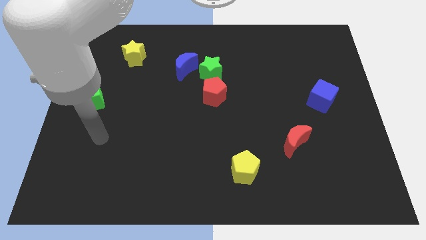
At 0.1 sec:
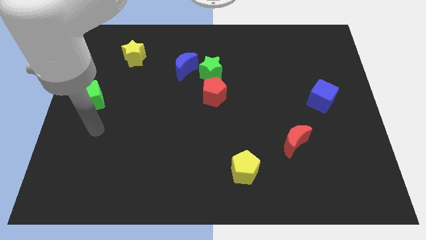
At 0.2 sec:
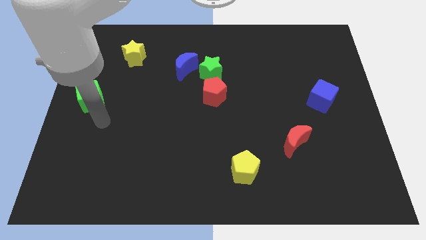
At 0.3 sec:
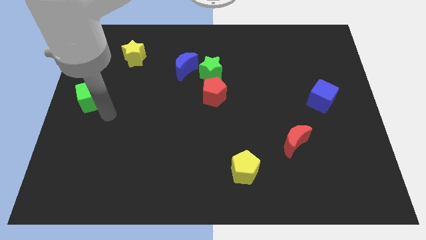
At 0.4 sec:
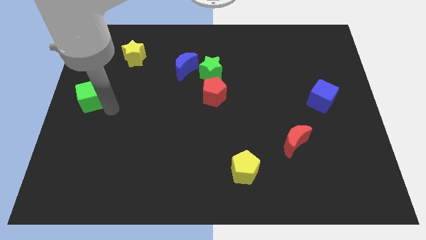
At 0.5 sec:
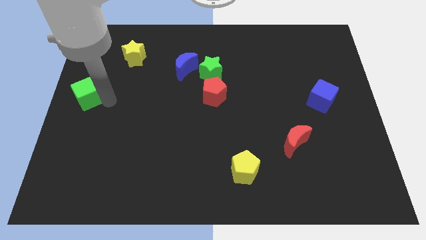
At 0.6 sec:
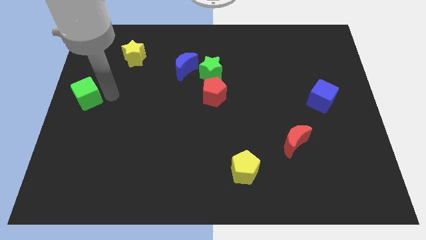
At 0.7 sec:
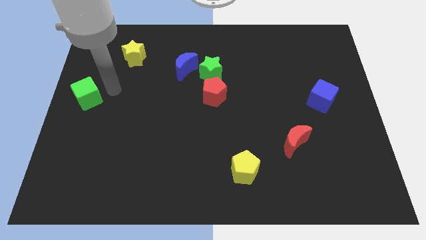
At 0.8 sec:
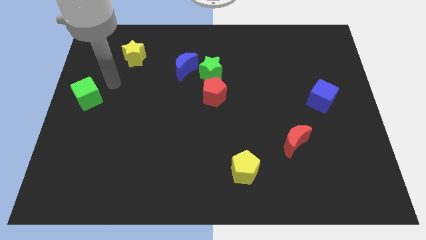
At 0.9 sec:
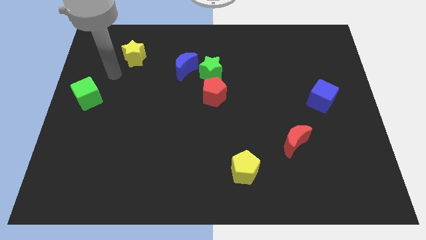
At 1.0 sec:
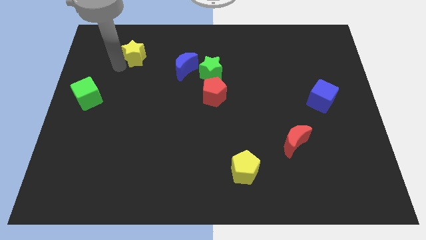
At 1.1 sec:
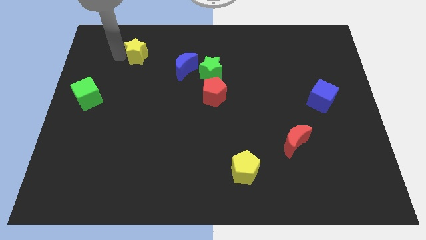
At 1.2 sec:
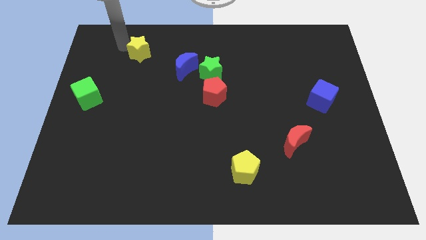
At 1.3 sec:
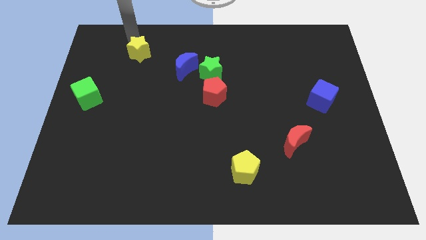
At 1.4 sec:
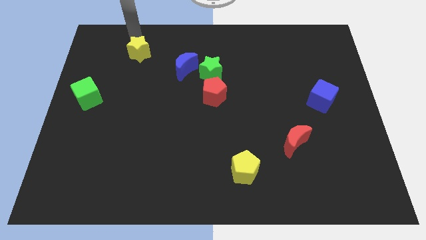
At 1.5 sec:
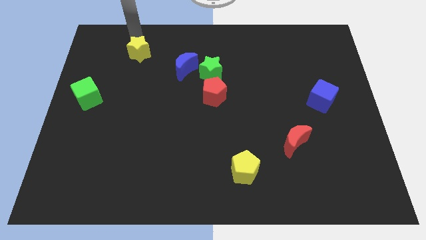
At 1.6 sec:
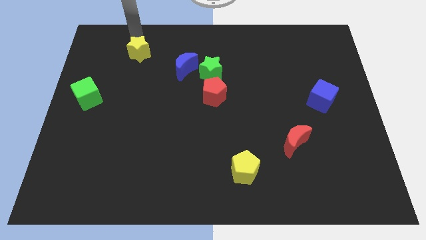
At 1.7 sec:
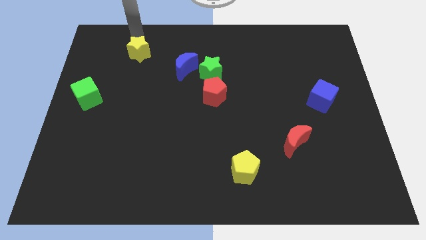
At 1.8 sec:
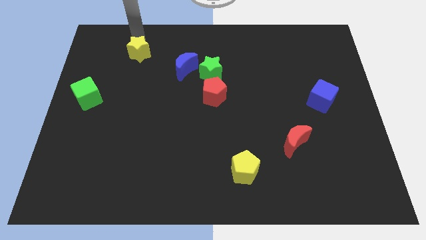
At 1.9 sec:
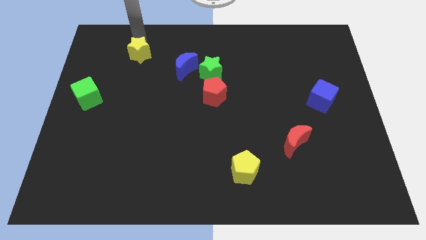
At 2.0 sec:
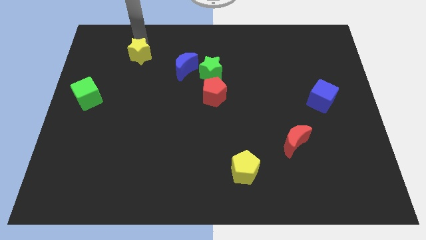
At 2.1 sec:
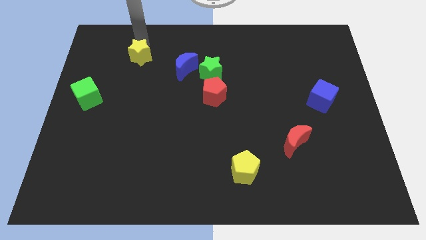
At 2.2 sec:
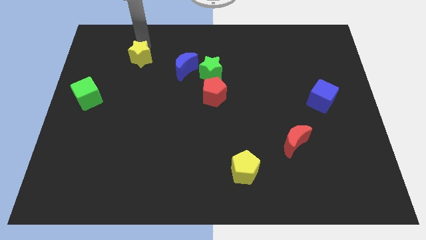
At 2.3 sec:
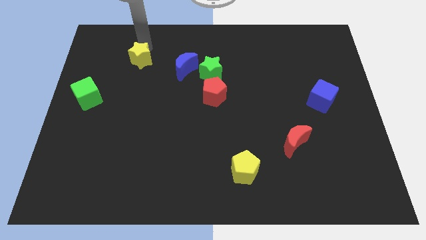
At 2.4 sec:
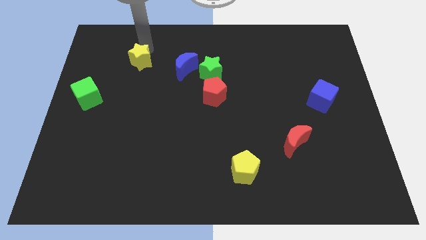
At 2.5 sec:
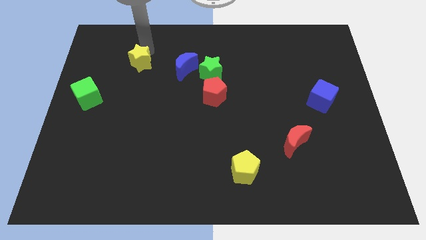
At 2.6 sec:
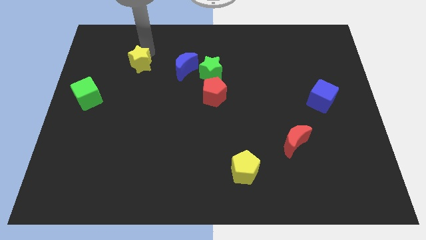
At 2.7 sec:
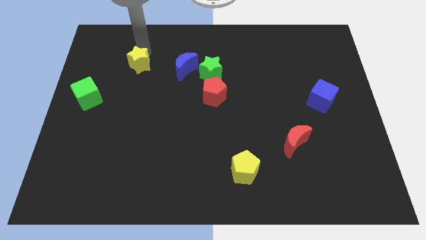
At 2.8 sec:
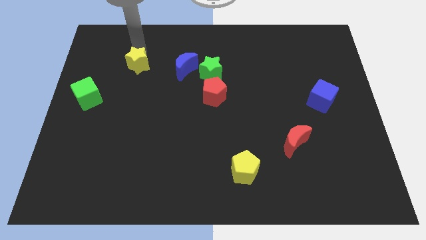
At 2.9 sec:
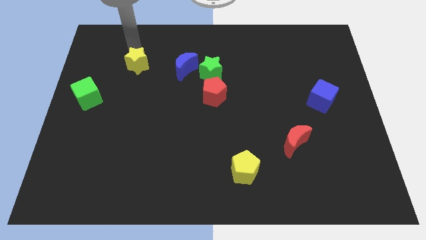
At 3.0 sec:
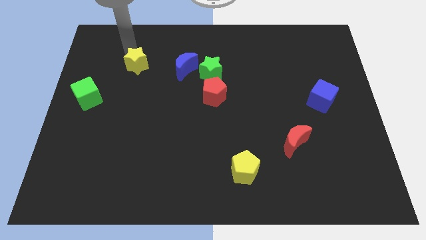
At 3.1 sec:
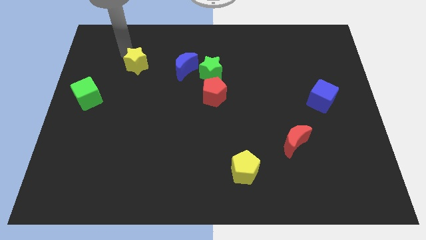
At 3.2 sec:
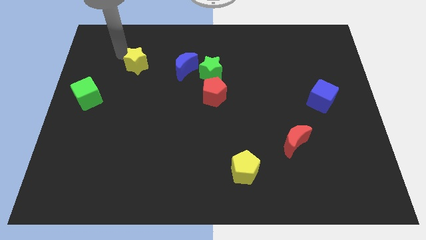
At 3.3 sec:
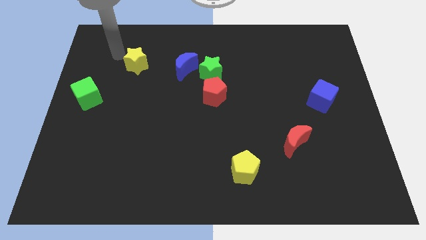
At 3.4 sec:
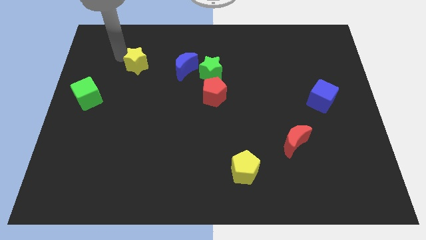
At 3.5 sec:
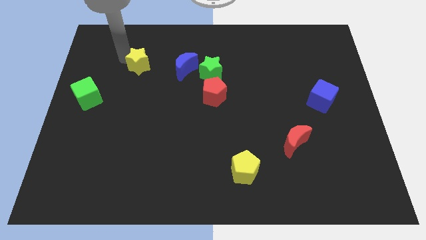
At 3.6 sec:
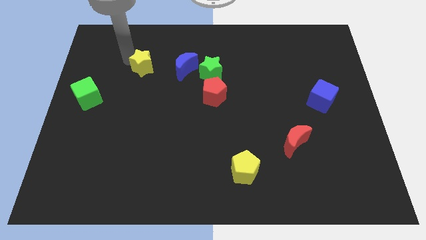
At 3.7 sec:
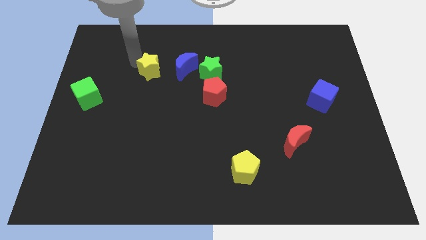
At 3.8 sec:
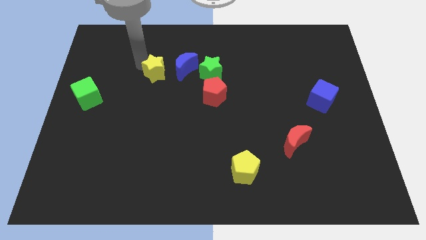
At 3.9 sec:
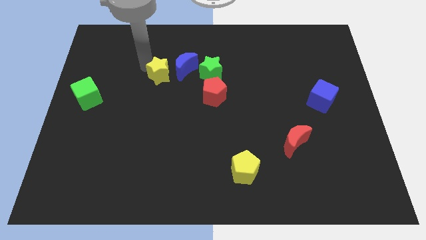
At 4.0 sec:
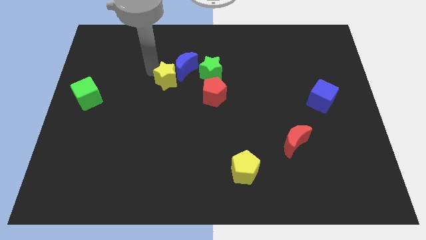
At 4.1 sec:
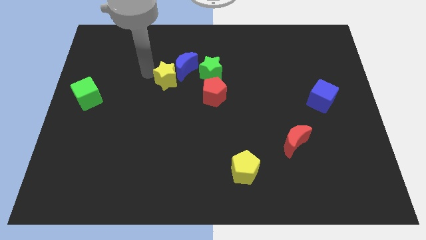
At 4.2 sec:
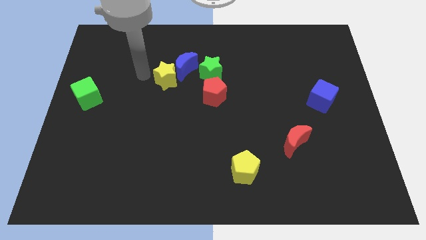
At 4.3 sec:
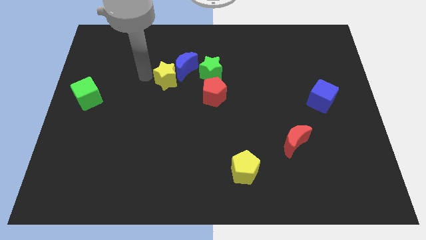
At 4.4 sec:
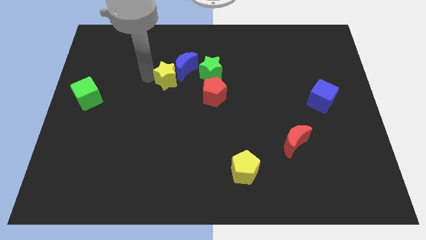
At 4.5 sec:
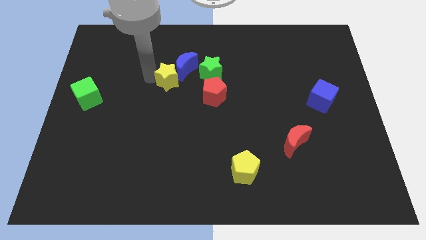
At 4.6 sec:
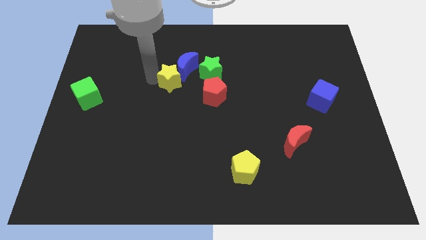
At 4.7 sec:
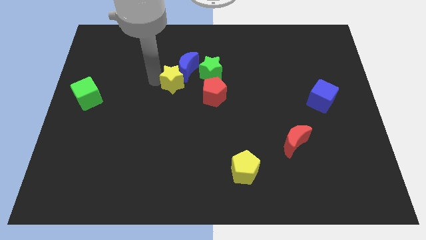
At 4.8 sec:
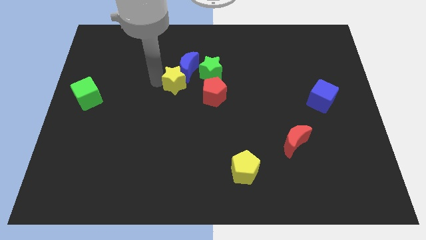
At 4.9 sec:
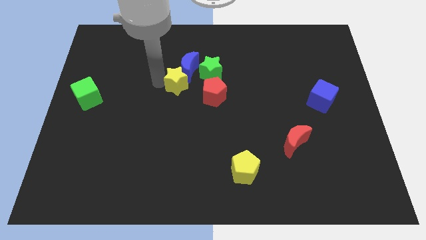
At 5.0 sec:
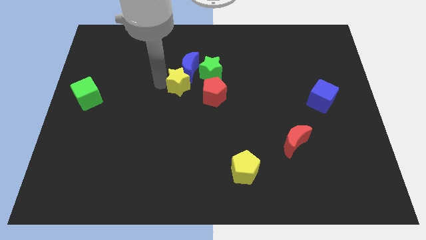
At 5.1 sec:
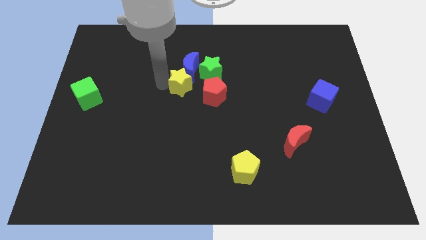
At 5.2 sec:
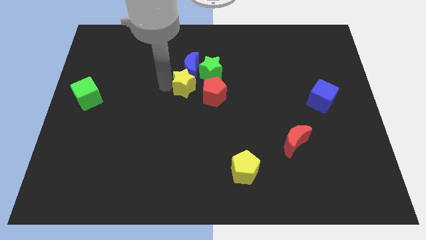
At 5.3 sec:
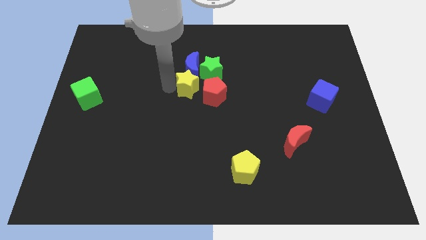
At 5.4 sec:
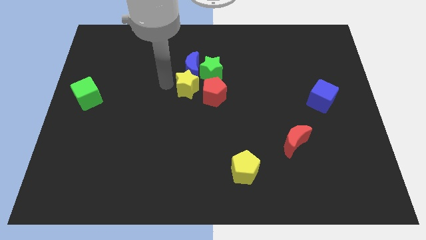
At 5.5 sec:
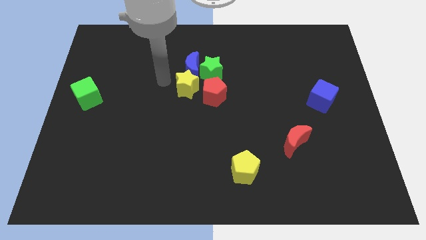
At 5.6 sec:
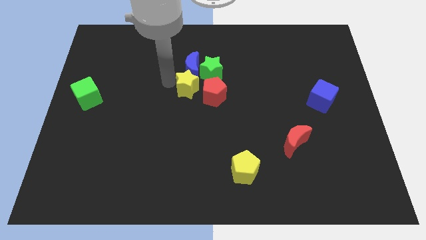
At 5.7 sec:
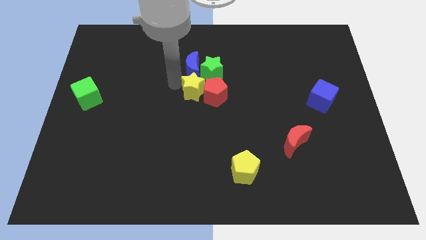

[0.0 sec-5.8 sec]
push the yellow star towards the red pentagon

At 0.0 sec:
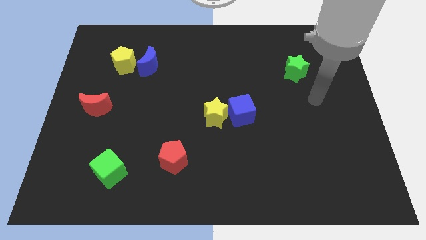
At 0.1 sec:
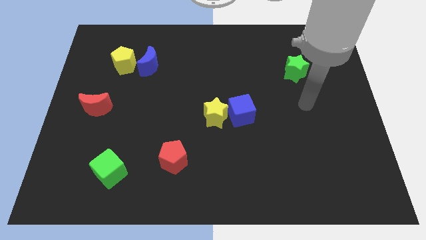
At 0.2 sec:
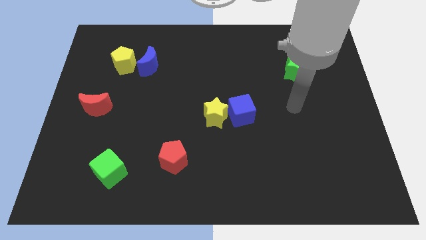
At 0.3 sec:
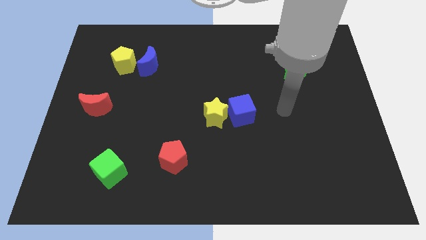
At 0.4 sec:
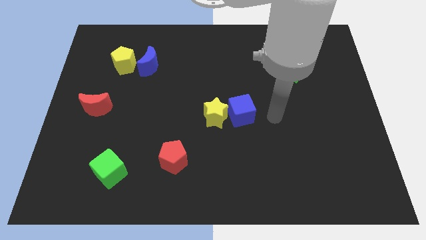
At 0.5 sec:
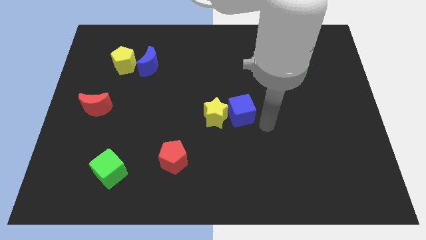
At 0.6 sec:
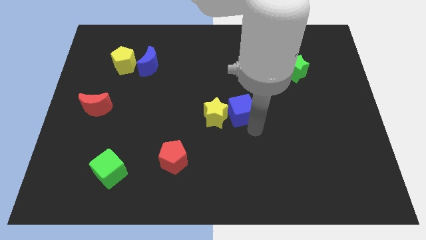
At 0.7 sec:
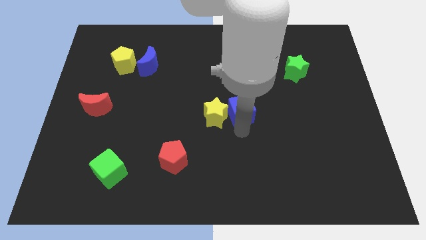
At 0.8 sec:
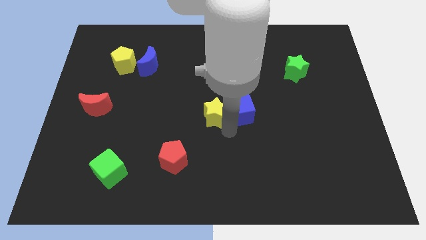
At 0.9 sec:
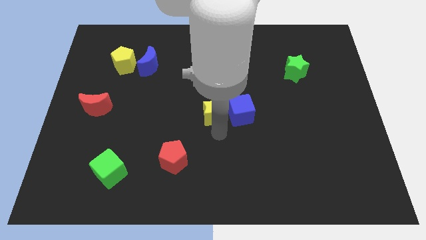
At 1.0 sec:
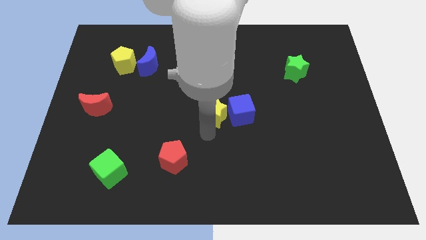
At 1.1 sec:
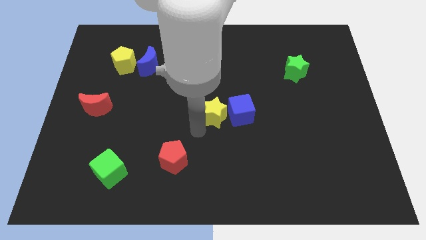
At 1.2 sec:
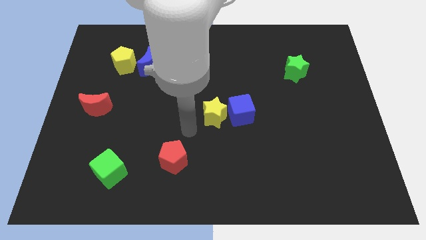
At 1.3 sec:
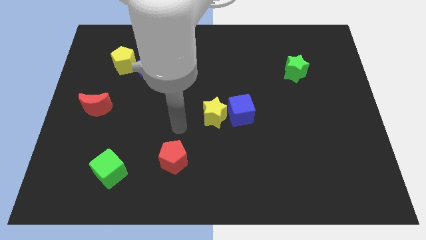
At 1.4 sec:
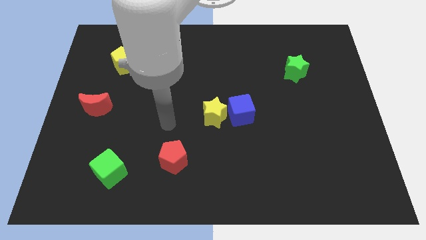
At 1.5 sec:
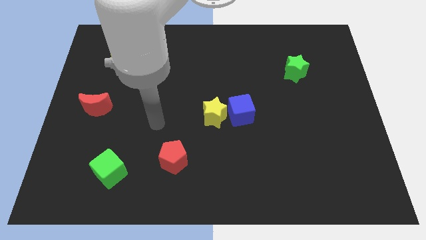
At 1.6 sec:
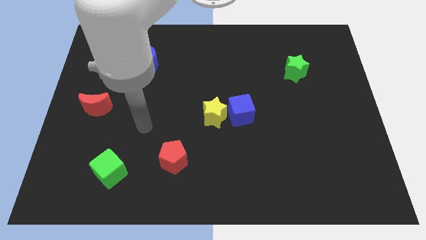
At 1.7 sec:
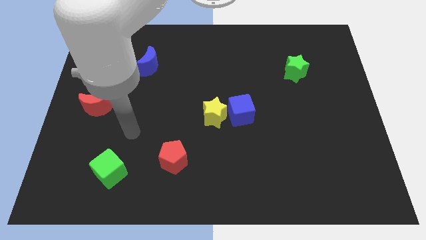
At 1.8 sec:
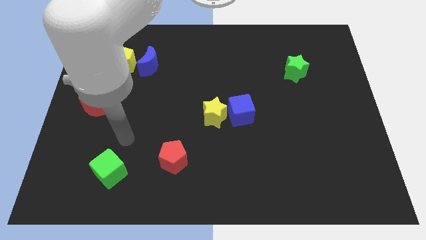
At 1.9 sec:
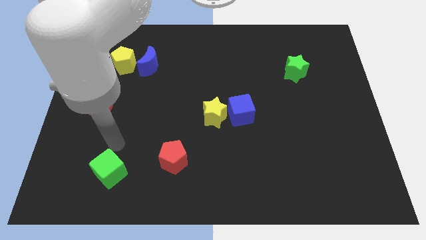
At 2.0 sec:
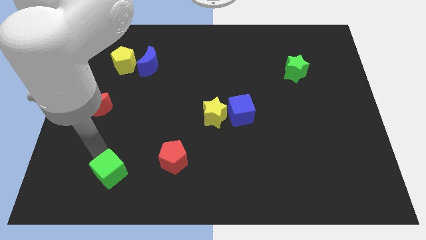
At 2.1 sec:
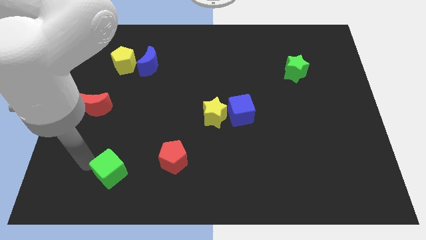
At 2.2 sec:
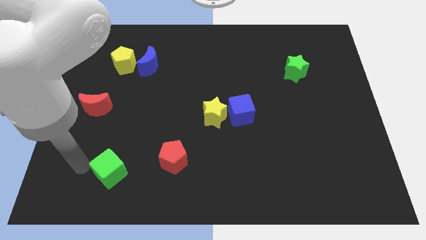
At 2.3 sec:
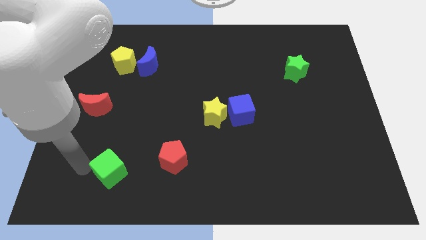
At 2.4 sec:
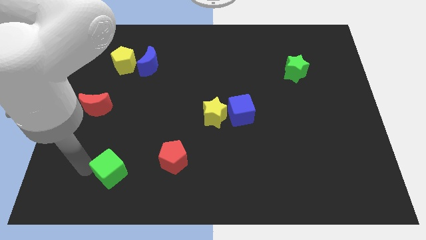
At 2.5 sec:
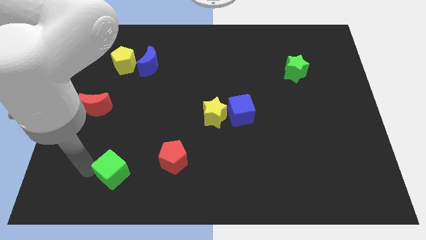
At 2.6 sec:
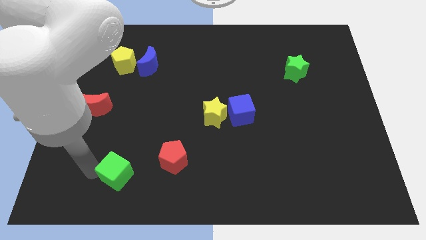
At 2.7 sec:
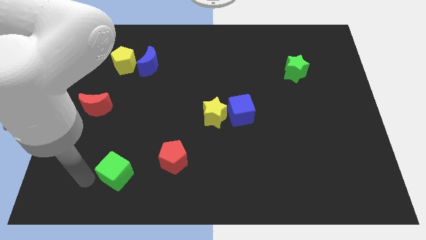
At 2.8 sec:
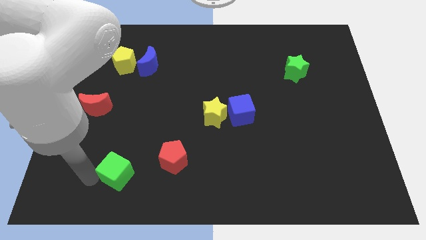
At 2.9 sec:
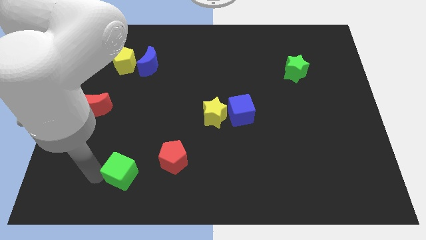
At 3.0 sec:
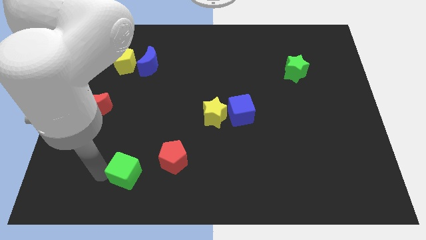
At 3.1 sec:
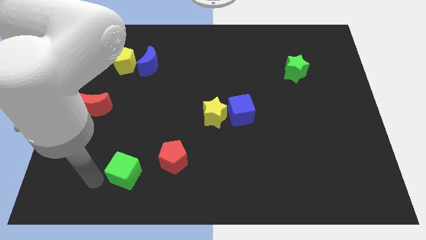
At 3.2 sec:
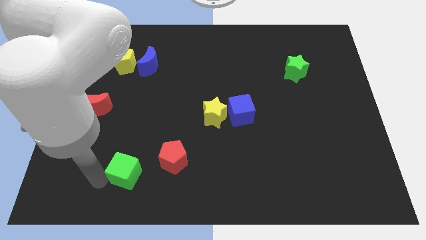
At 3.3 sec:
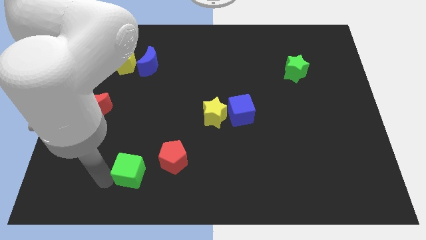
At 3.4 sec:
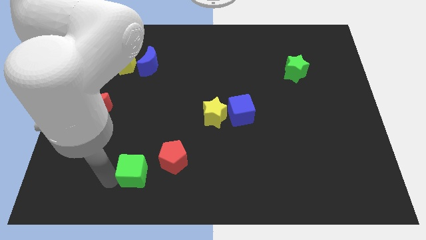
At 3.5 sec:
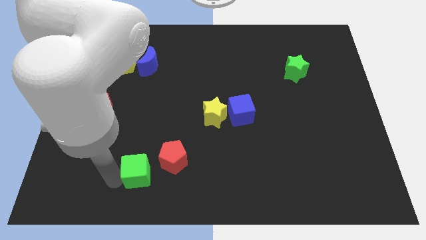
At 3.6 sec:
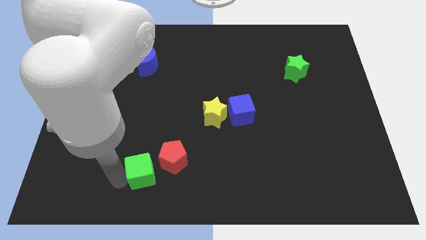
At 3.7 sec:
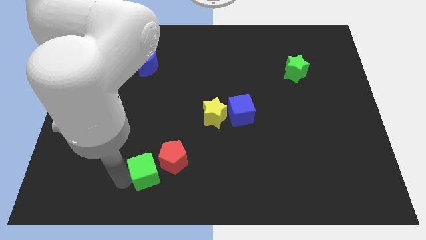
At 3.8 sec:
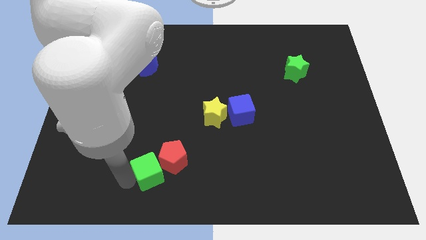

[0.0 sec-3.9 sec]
push the green cube next to the red pentagon
